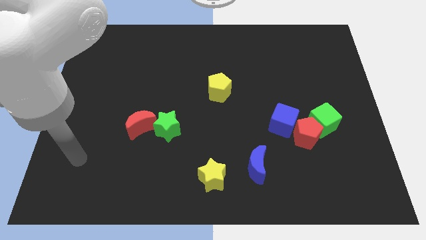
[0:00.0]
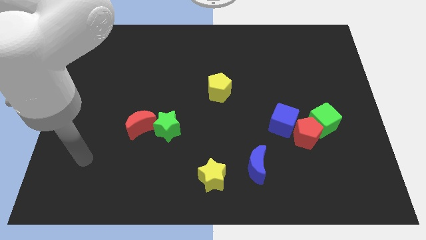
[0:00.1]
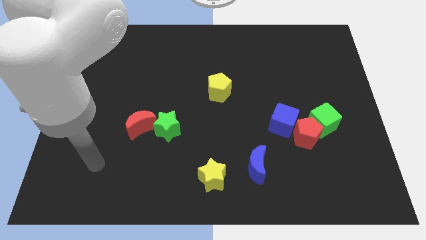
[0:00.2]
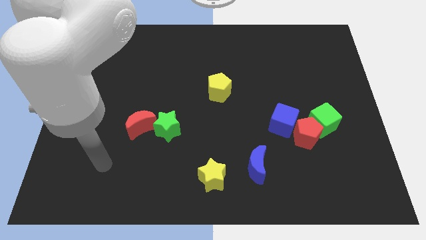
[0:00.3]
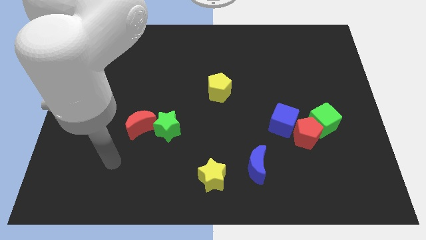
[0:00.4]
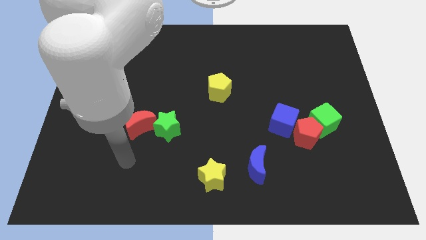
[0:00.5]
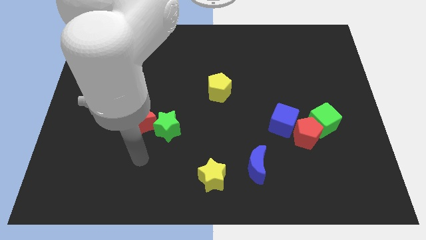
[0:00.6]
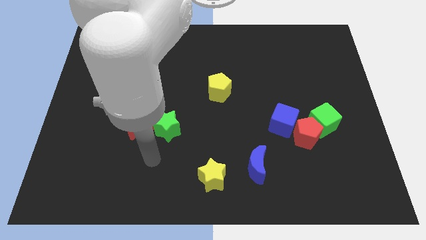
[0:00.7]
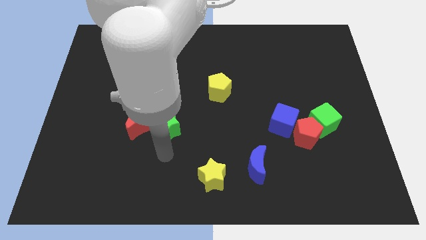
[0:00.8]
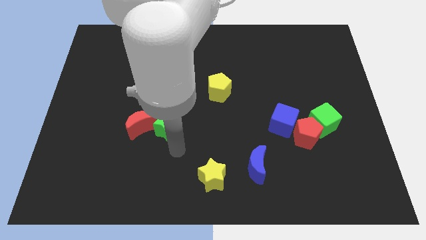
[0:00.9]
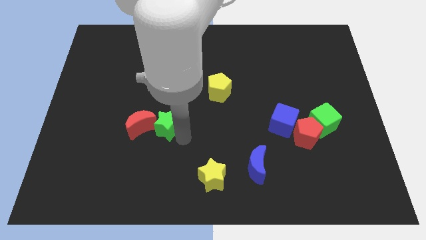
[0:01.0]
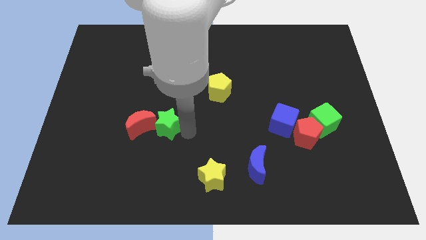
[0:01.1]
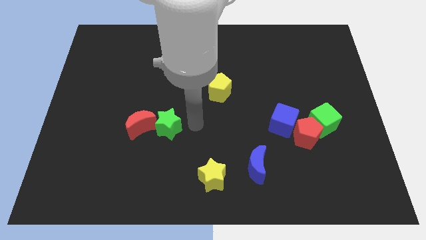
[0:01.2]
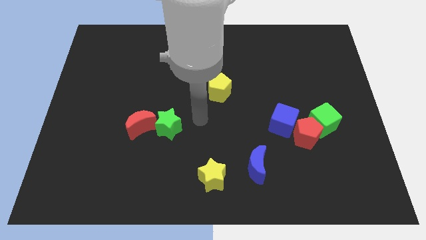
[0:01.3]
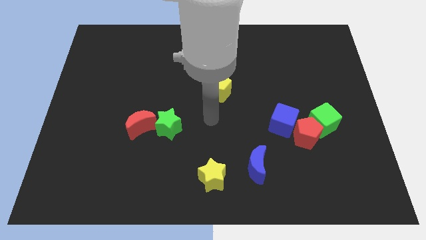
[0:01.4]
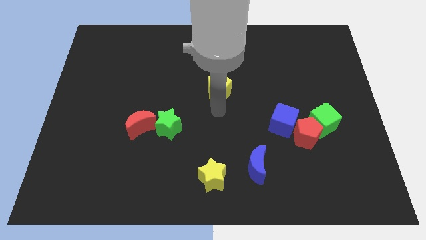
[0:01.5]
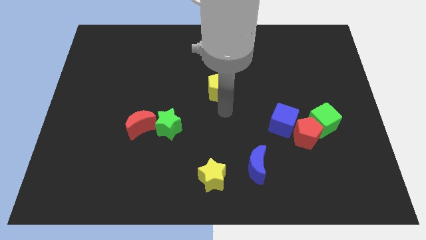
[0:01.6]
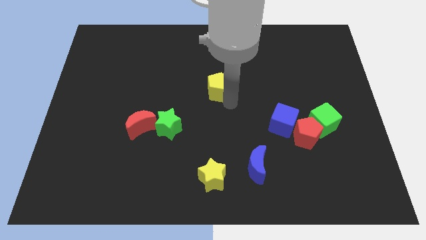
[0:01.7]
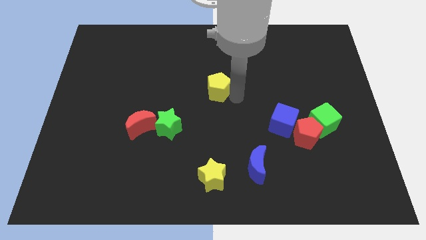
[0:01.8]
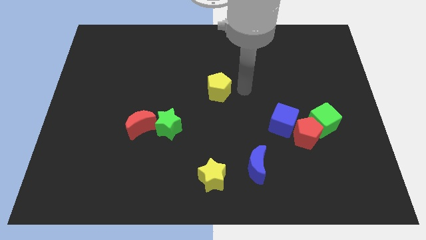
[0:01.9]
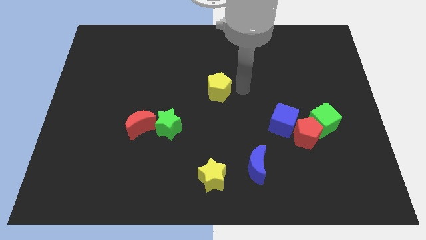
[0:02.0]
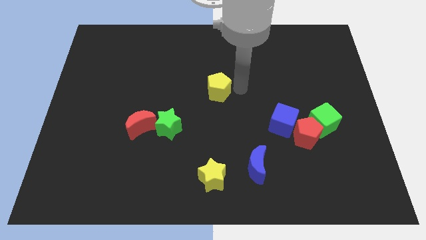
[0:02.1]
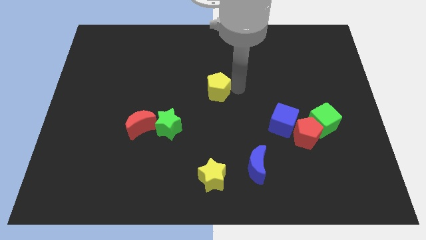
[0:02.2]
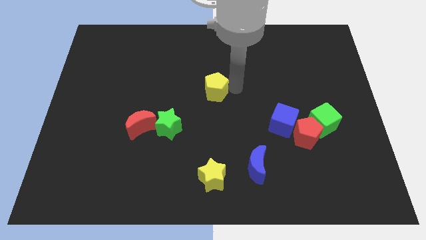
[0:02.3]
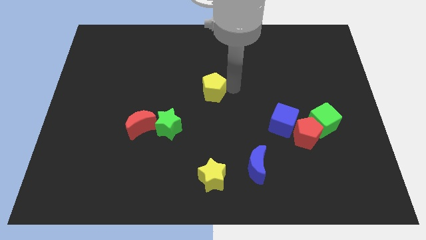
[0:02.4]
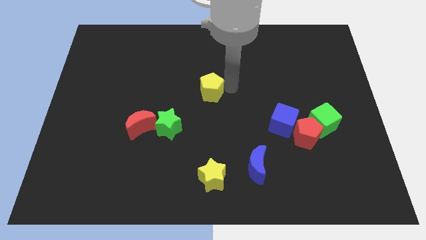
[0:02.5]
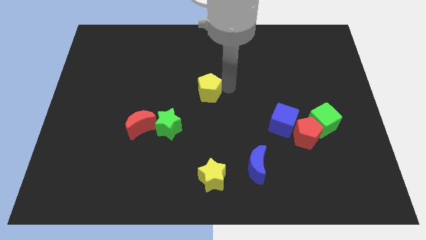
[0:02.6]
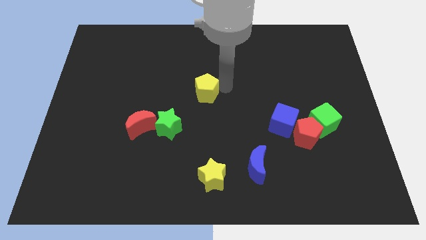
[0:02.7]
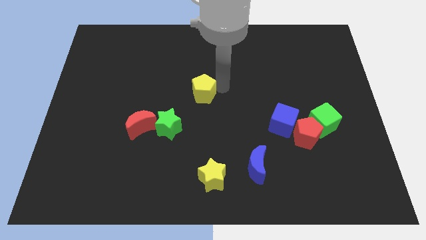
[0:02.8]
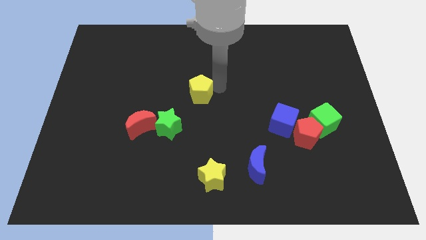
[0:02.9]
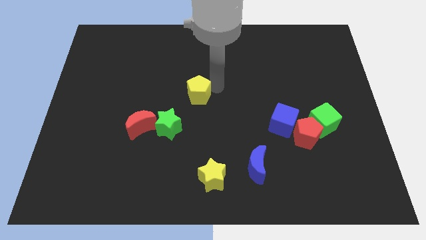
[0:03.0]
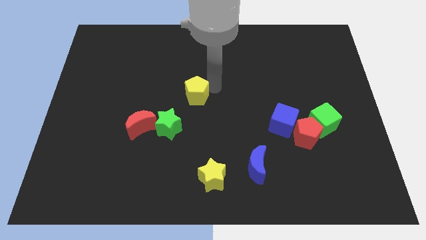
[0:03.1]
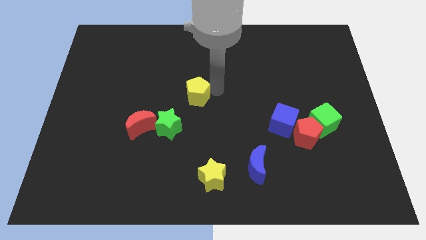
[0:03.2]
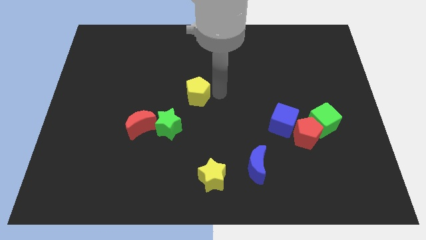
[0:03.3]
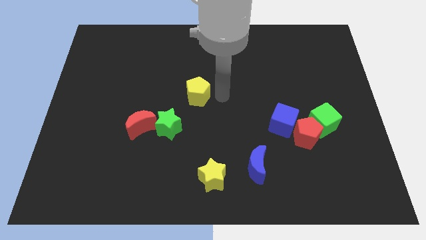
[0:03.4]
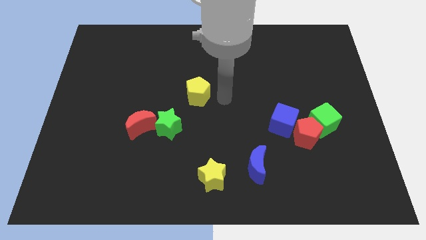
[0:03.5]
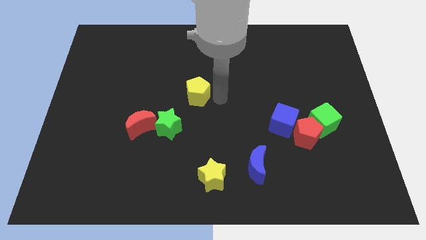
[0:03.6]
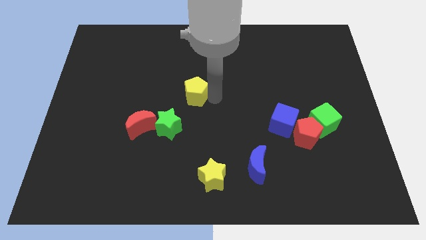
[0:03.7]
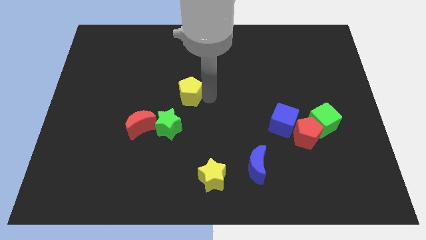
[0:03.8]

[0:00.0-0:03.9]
push the yellow pentagon a little bit left

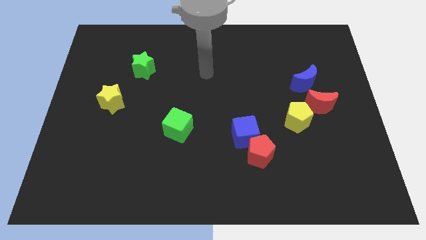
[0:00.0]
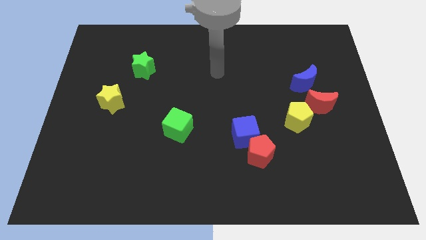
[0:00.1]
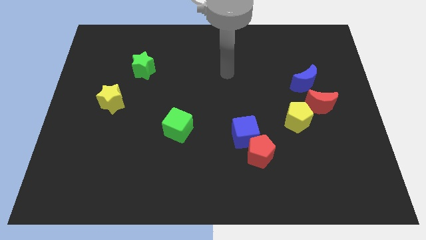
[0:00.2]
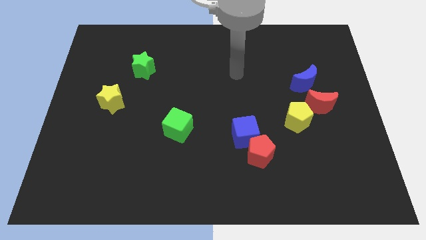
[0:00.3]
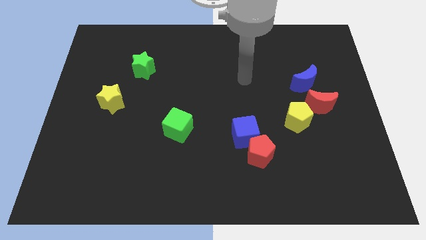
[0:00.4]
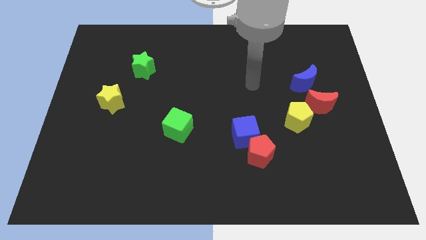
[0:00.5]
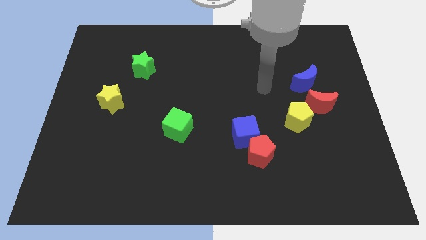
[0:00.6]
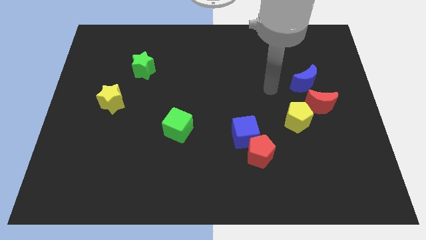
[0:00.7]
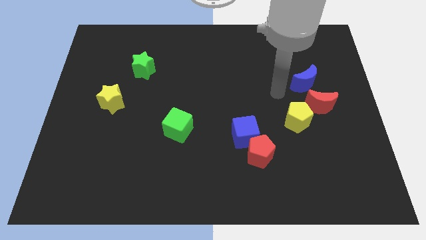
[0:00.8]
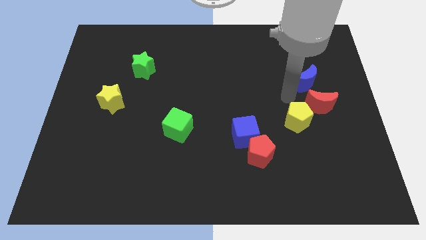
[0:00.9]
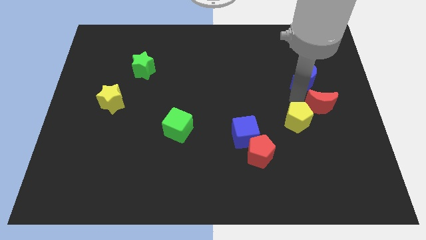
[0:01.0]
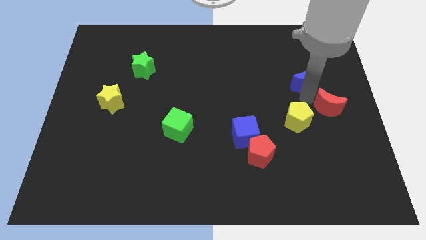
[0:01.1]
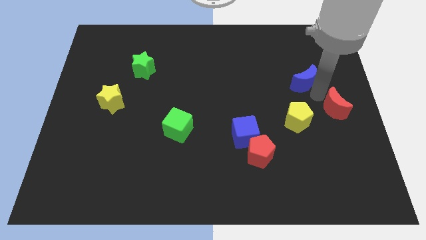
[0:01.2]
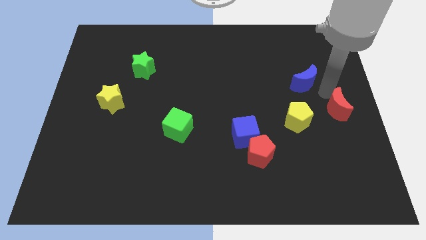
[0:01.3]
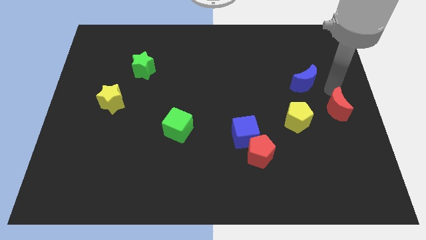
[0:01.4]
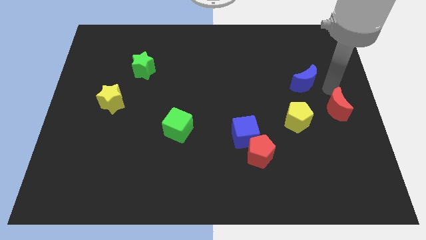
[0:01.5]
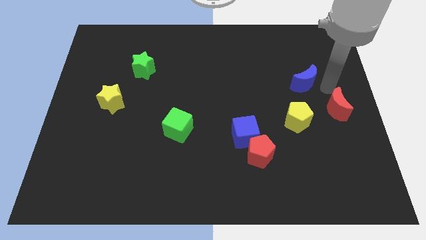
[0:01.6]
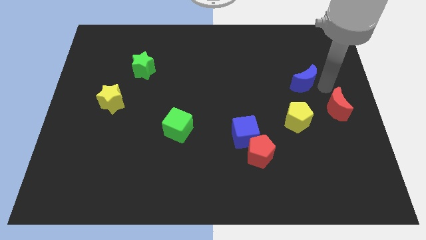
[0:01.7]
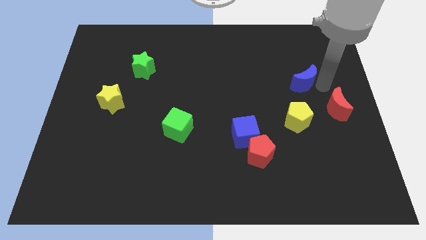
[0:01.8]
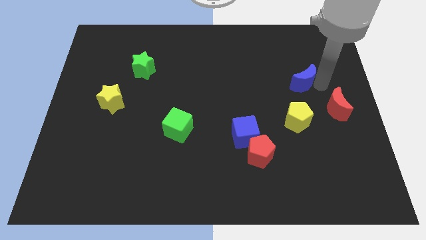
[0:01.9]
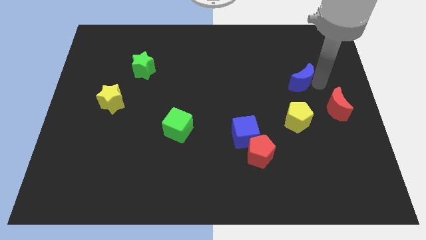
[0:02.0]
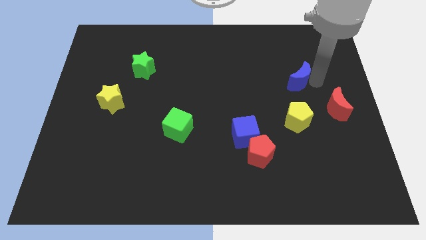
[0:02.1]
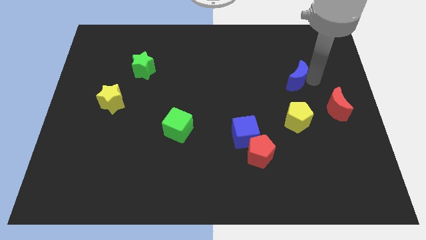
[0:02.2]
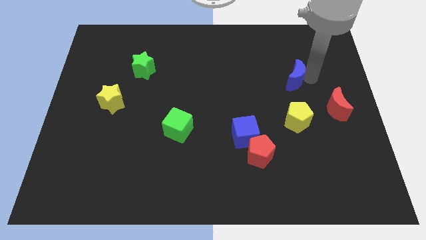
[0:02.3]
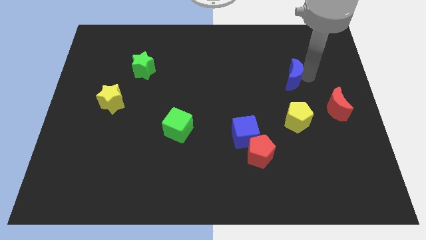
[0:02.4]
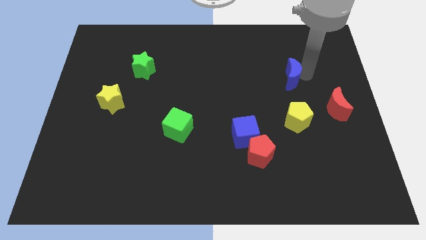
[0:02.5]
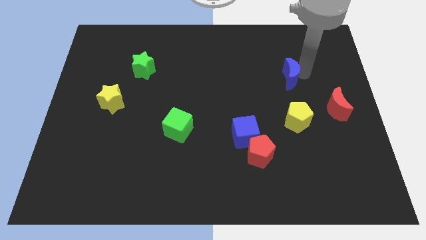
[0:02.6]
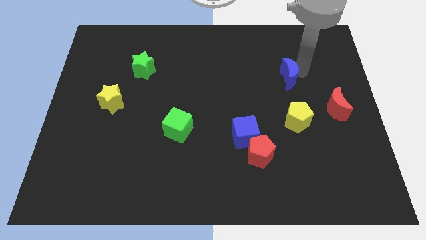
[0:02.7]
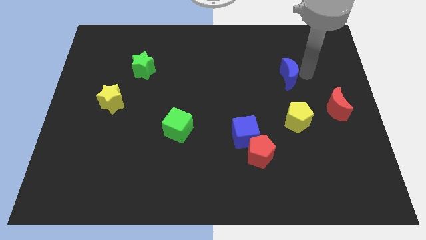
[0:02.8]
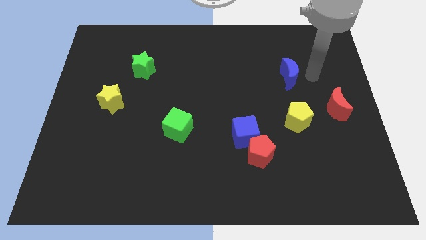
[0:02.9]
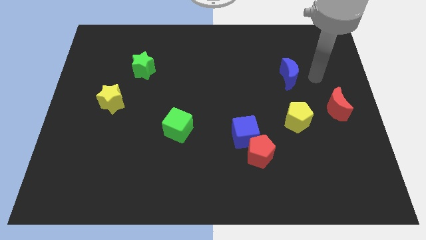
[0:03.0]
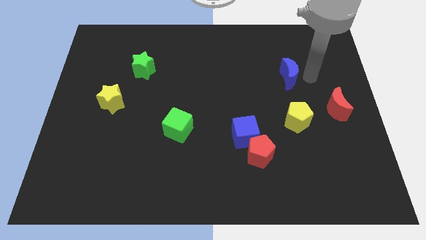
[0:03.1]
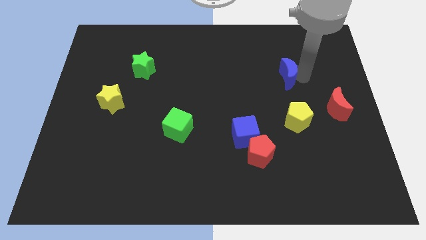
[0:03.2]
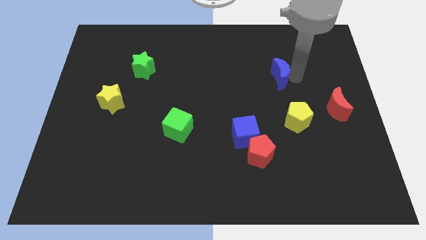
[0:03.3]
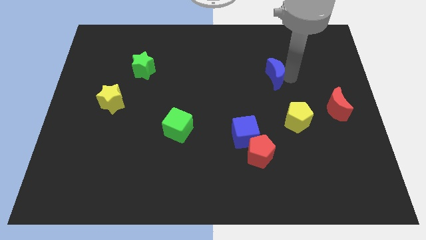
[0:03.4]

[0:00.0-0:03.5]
push the blue moon left slightly

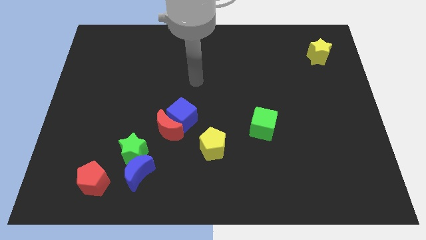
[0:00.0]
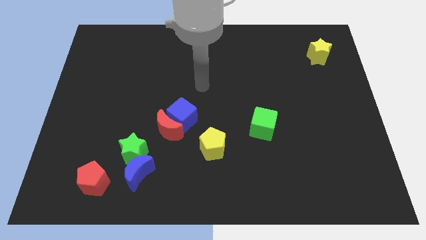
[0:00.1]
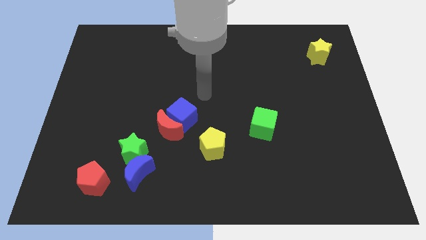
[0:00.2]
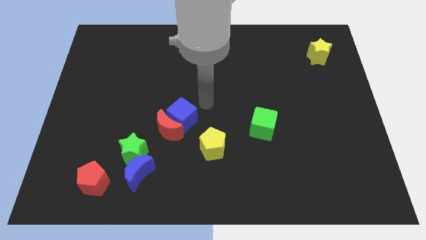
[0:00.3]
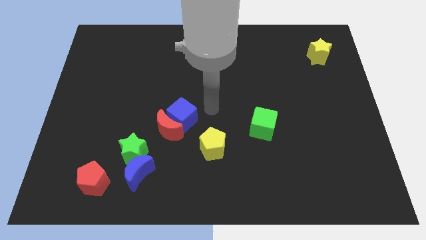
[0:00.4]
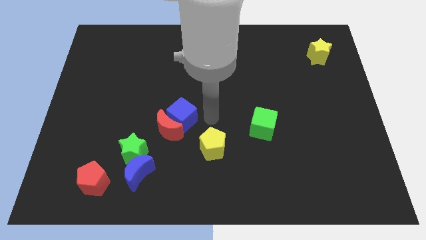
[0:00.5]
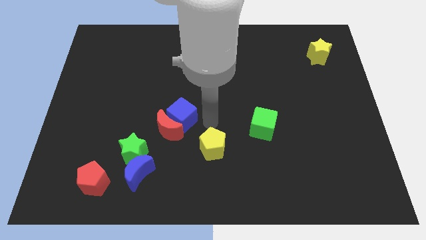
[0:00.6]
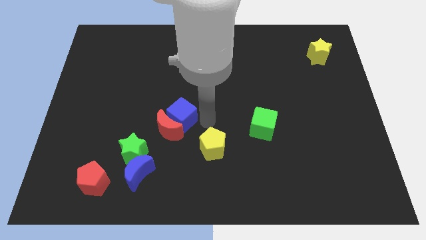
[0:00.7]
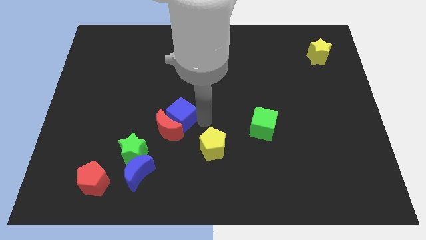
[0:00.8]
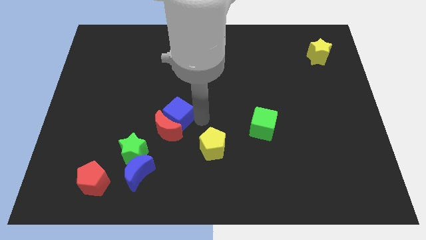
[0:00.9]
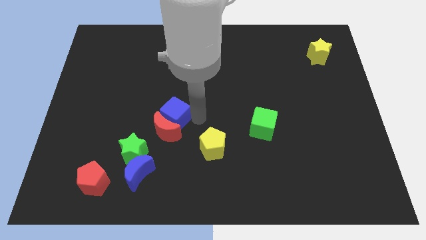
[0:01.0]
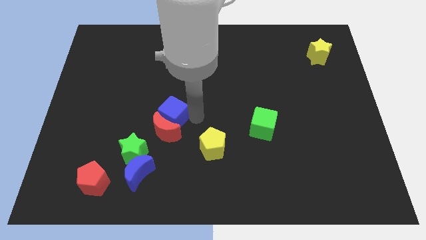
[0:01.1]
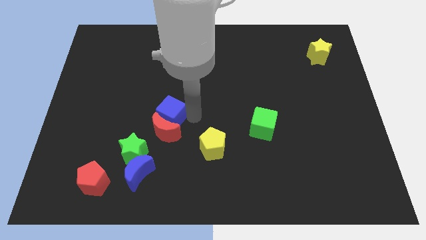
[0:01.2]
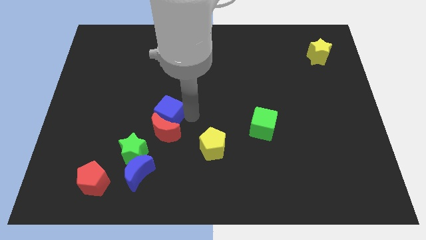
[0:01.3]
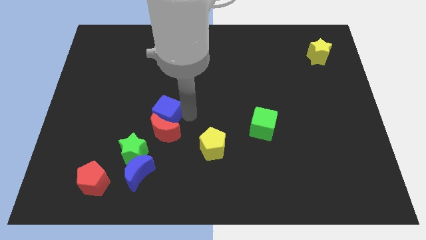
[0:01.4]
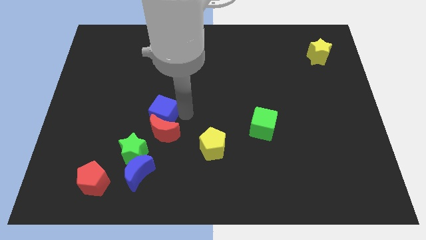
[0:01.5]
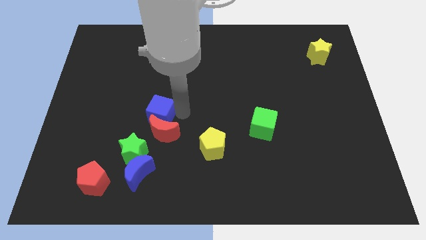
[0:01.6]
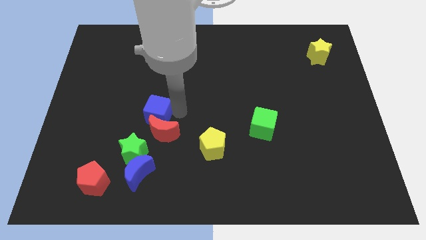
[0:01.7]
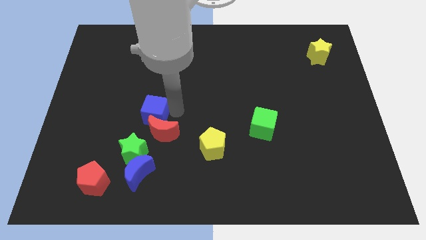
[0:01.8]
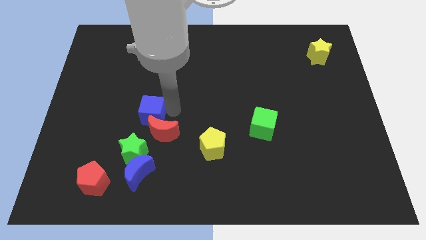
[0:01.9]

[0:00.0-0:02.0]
slightly slide the blue cube to the left
